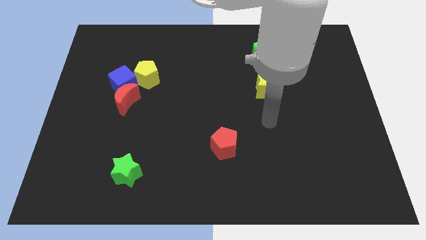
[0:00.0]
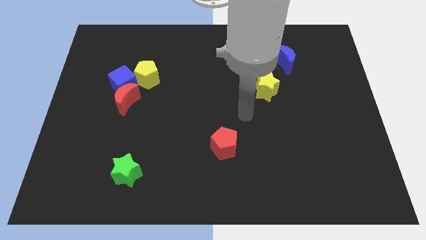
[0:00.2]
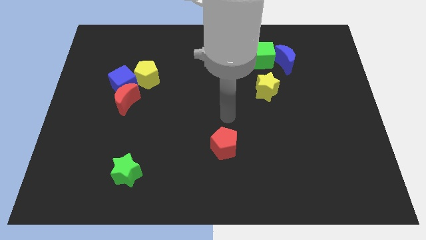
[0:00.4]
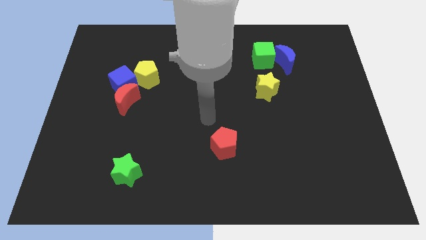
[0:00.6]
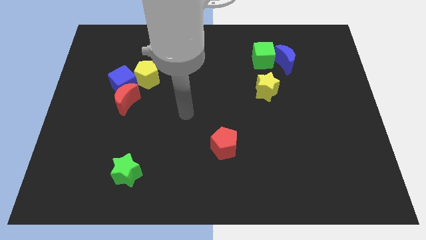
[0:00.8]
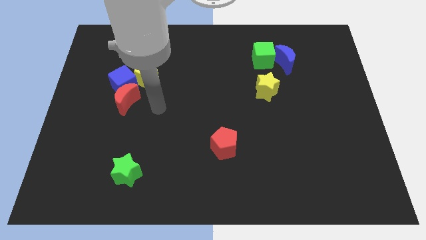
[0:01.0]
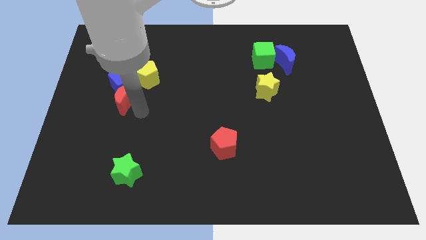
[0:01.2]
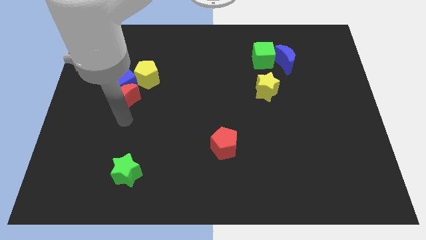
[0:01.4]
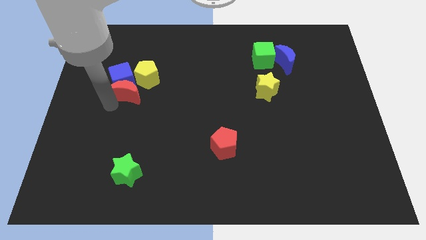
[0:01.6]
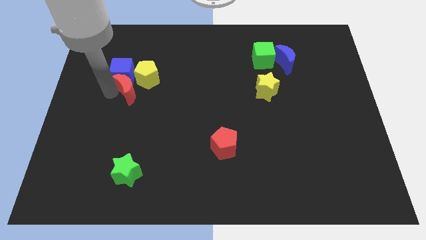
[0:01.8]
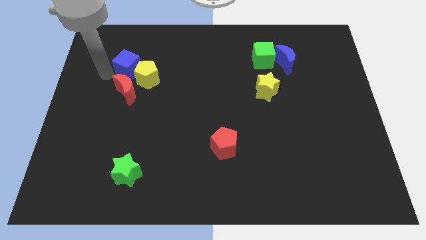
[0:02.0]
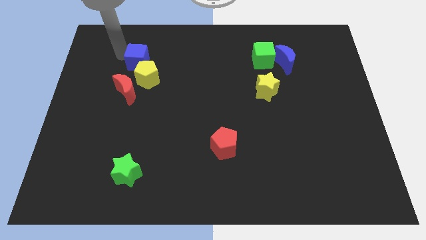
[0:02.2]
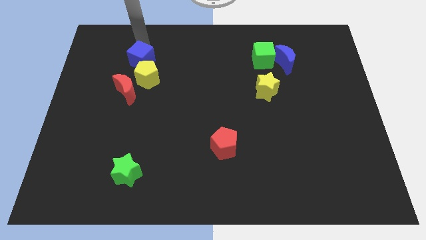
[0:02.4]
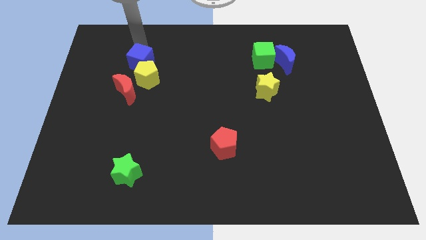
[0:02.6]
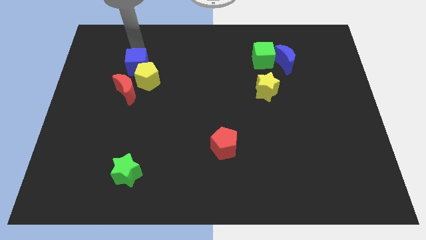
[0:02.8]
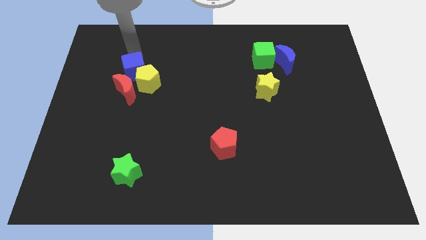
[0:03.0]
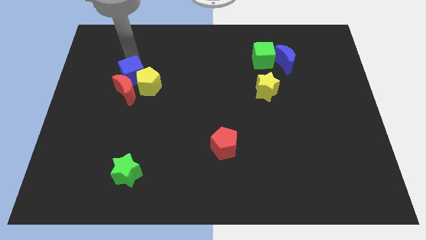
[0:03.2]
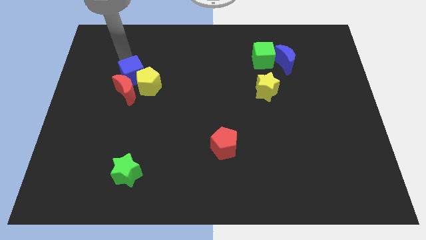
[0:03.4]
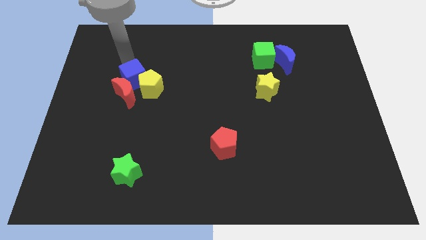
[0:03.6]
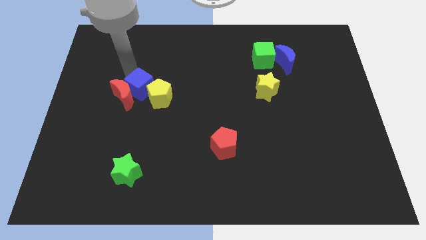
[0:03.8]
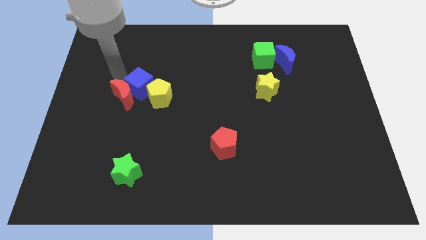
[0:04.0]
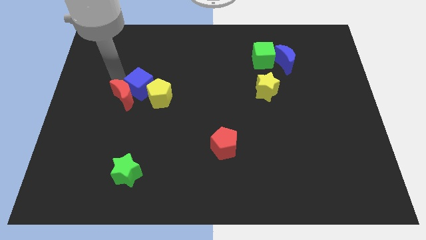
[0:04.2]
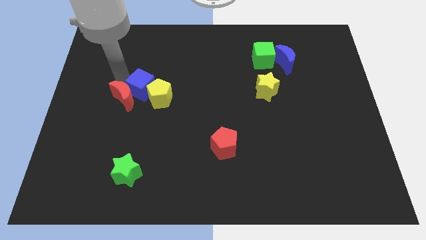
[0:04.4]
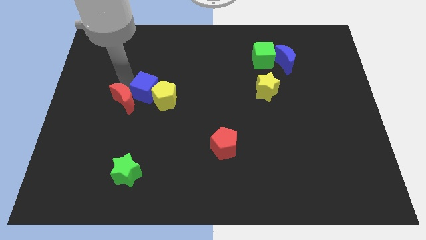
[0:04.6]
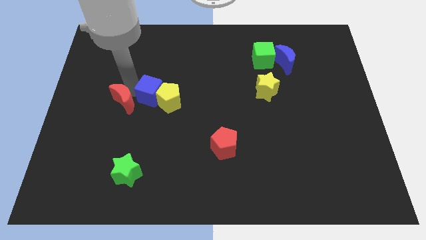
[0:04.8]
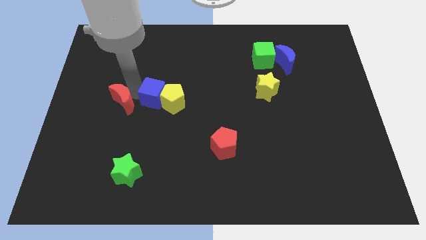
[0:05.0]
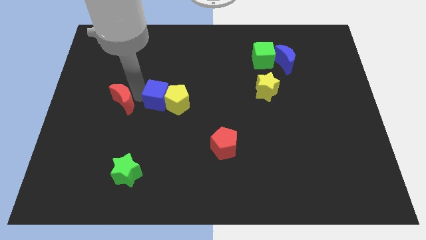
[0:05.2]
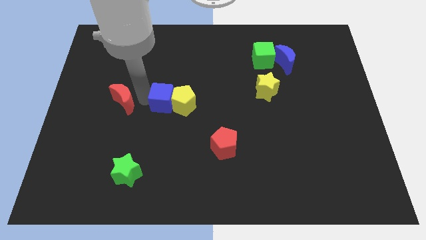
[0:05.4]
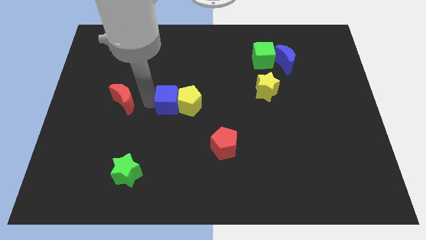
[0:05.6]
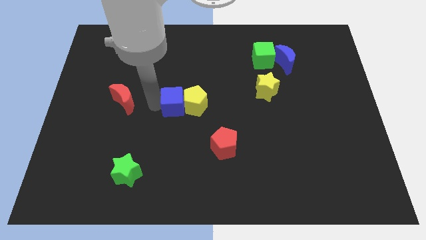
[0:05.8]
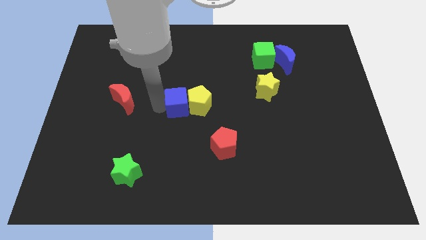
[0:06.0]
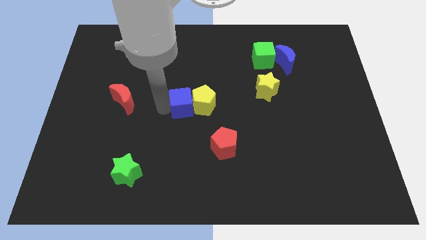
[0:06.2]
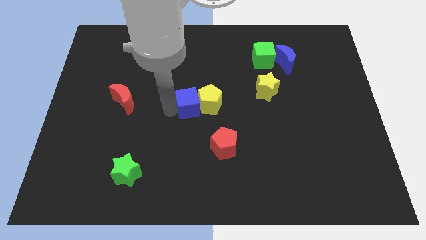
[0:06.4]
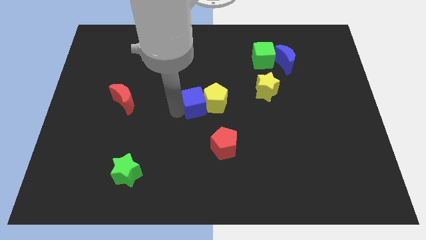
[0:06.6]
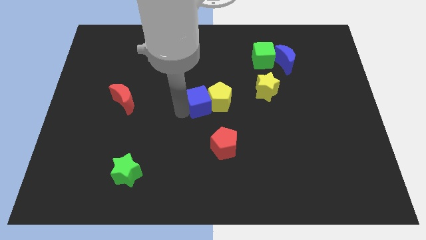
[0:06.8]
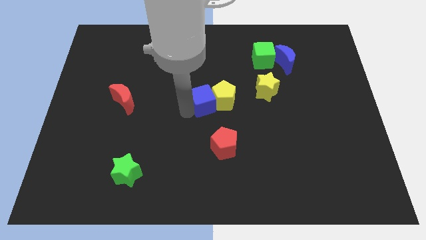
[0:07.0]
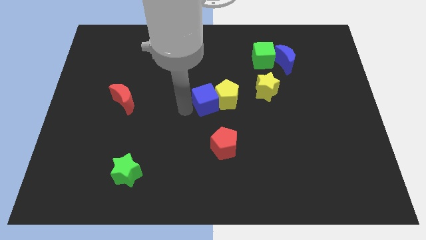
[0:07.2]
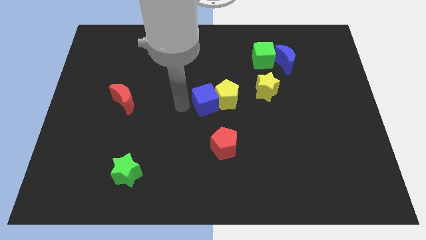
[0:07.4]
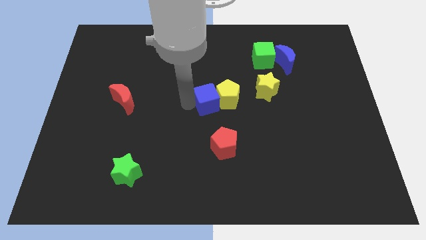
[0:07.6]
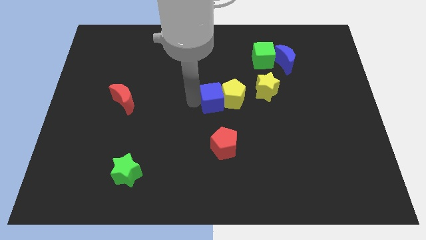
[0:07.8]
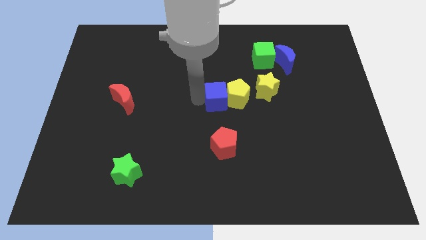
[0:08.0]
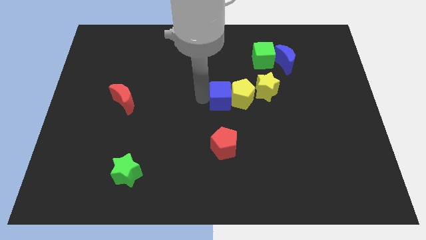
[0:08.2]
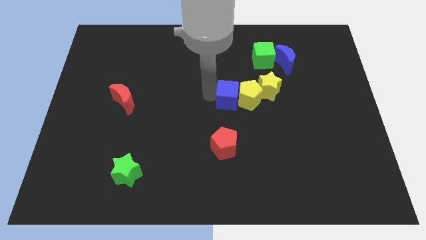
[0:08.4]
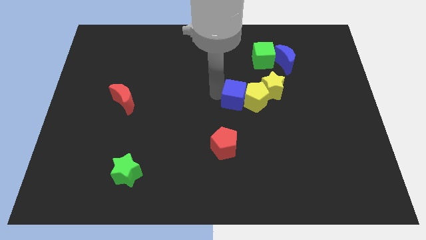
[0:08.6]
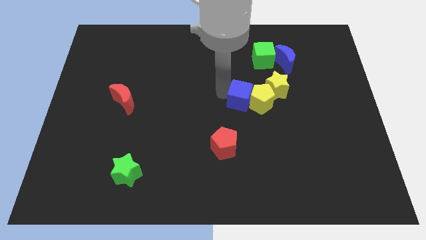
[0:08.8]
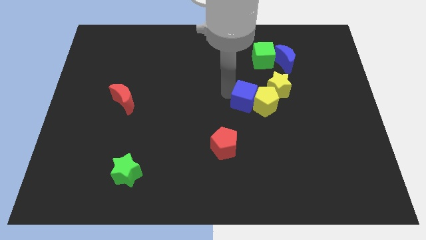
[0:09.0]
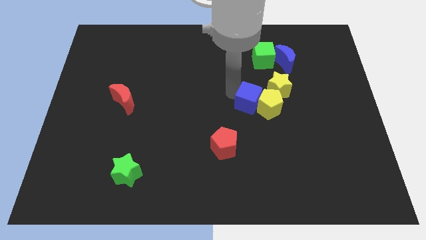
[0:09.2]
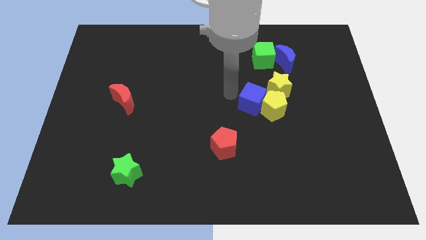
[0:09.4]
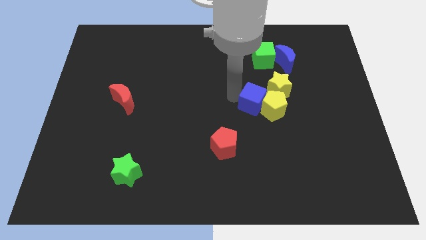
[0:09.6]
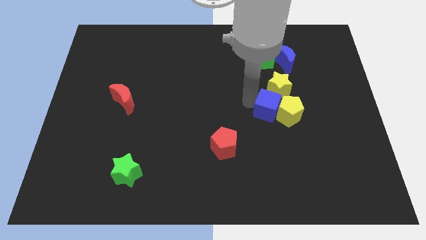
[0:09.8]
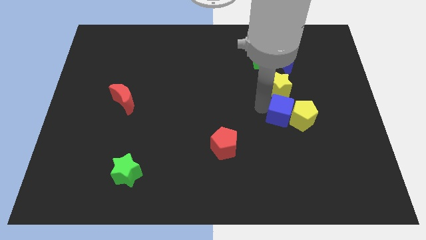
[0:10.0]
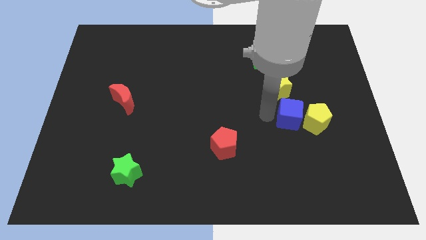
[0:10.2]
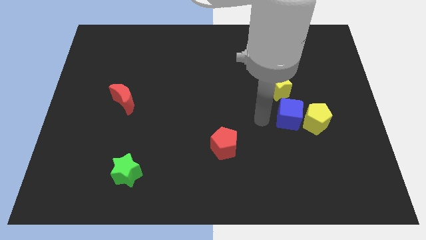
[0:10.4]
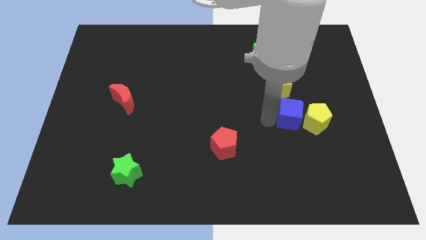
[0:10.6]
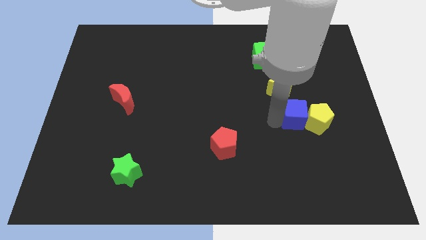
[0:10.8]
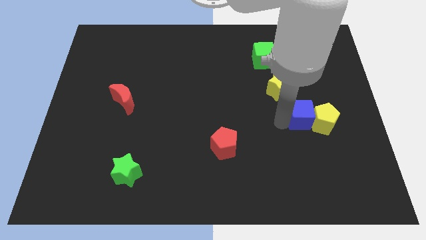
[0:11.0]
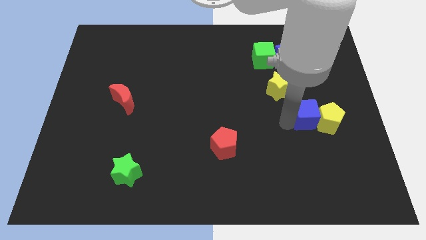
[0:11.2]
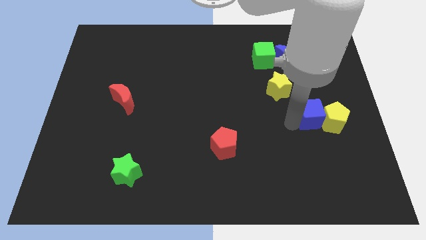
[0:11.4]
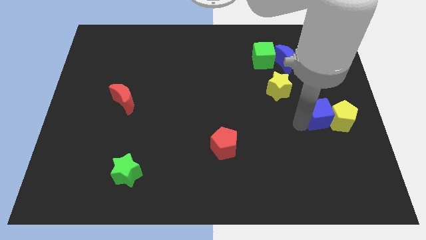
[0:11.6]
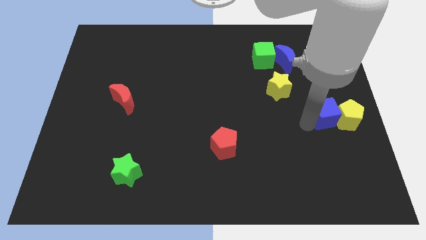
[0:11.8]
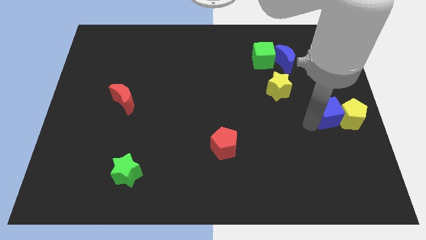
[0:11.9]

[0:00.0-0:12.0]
put the blue cube to the right side of the board

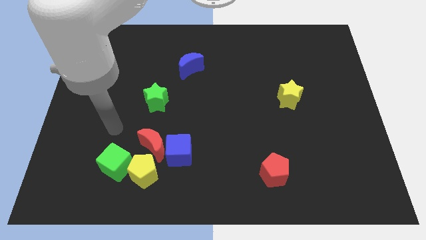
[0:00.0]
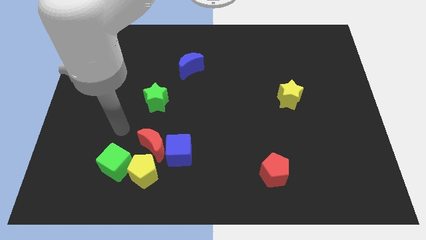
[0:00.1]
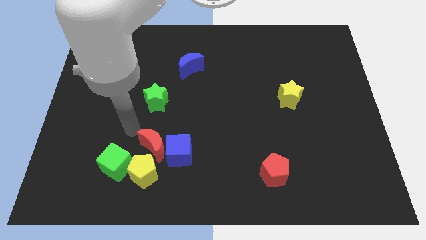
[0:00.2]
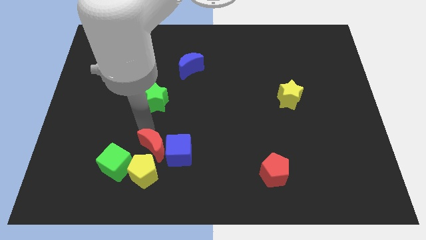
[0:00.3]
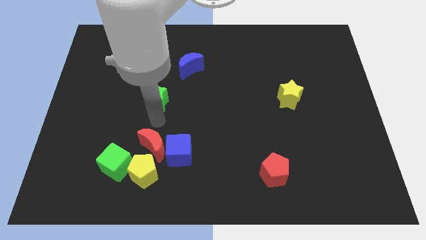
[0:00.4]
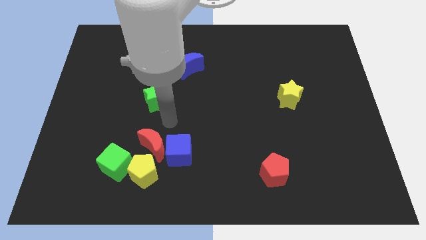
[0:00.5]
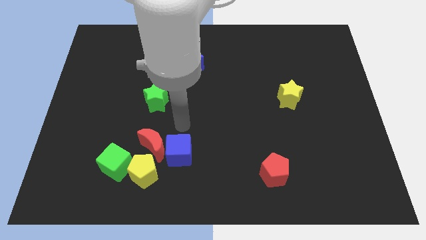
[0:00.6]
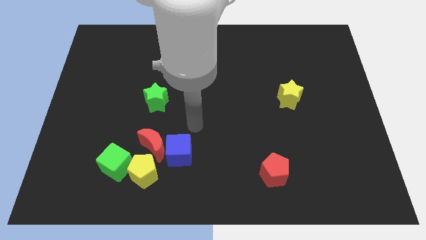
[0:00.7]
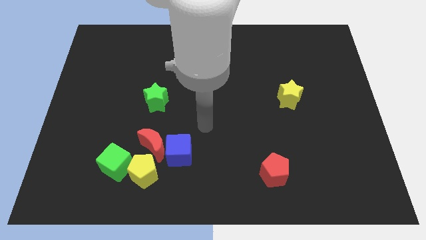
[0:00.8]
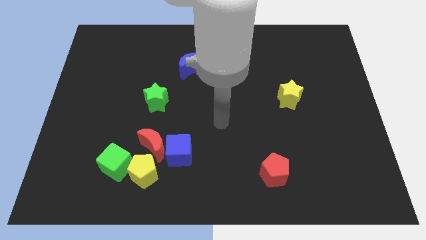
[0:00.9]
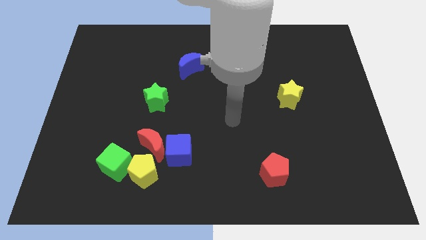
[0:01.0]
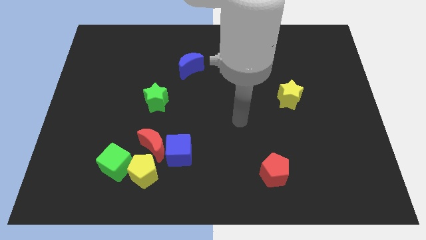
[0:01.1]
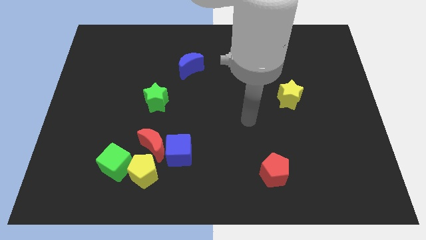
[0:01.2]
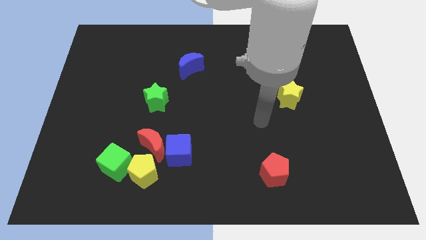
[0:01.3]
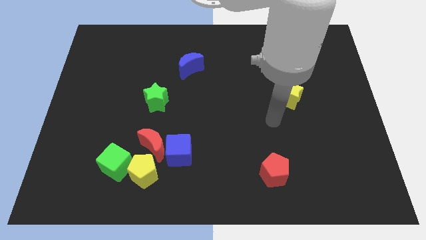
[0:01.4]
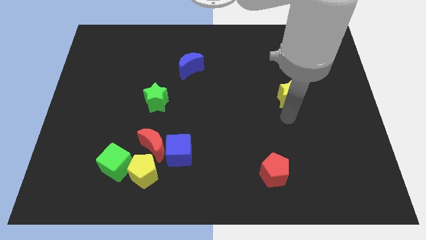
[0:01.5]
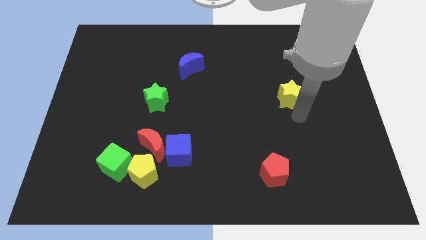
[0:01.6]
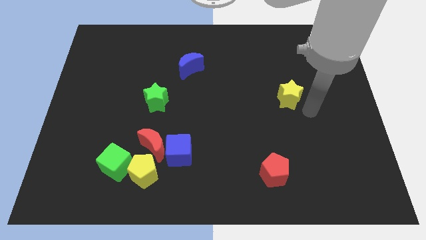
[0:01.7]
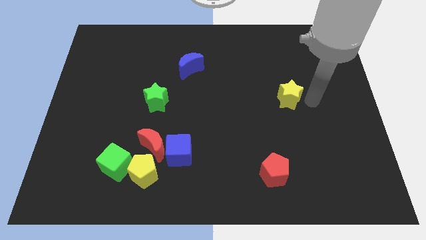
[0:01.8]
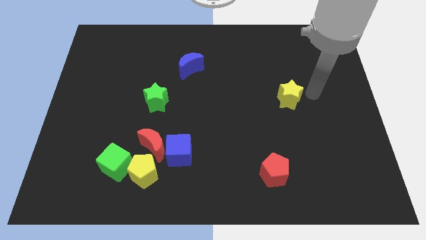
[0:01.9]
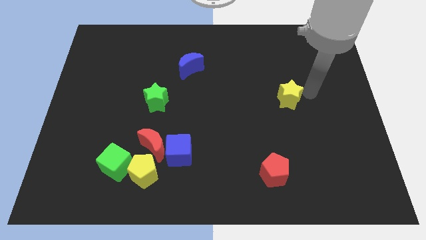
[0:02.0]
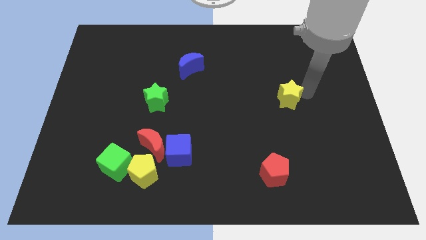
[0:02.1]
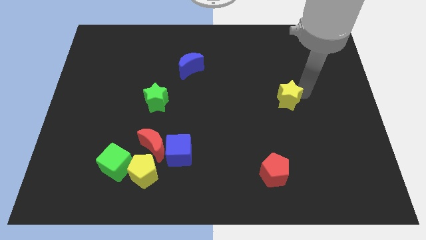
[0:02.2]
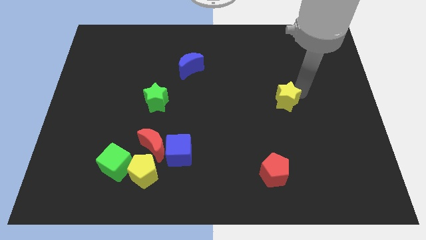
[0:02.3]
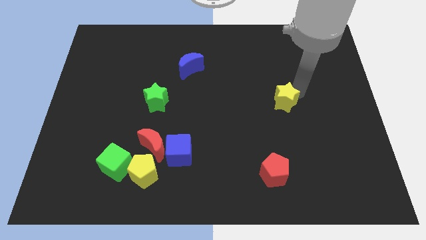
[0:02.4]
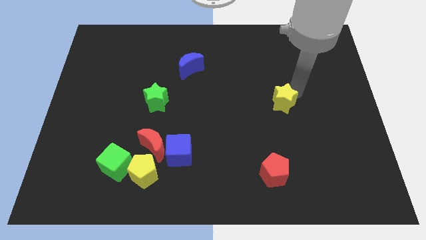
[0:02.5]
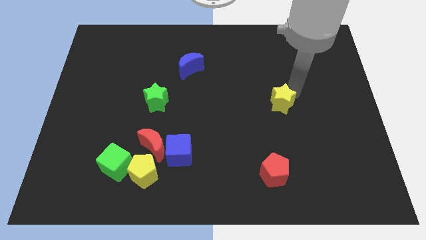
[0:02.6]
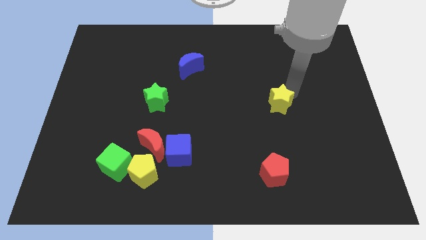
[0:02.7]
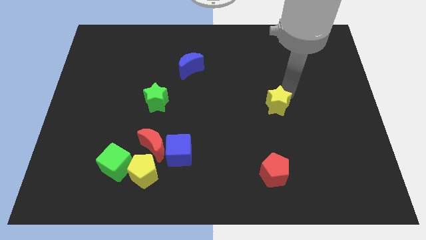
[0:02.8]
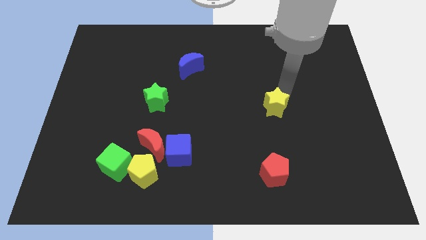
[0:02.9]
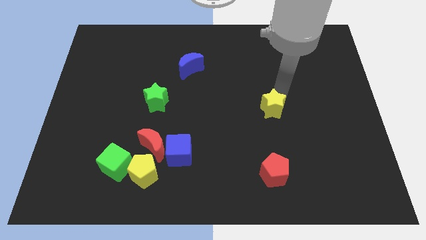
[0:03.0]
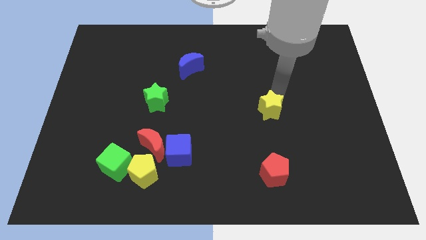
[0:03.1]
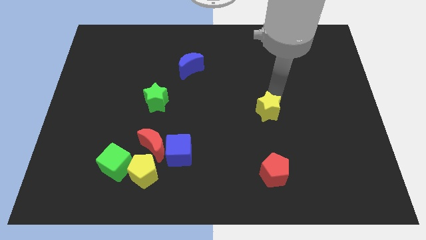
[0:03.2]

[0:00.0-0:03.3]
move the yellow star to the middle
